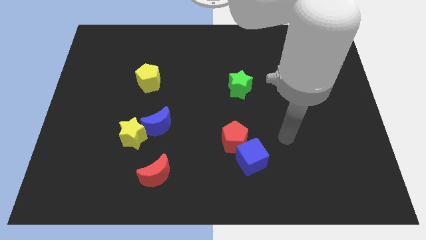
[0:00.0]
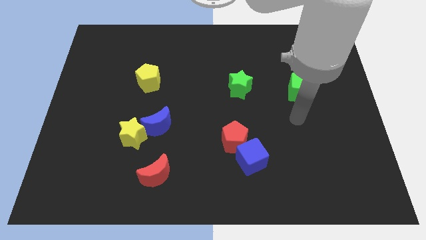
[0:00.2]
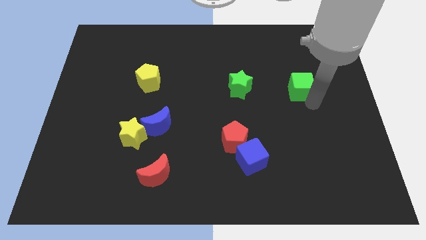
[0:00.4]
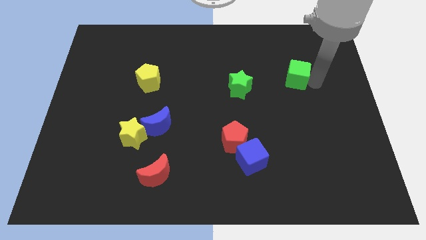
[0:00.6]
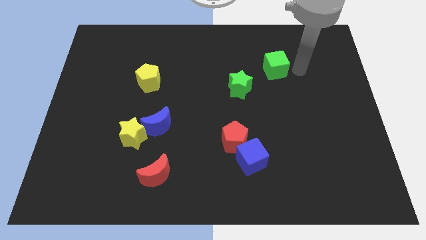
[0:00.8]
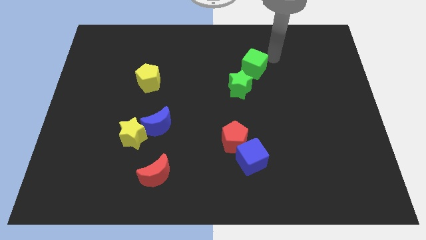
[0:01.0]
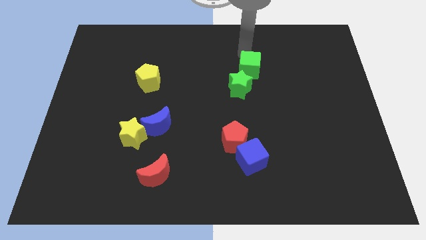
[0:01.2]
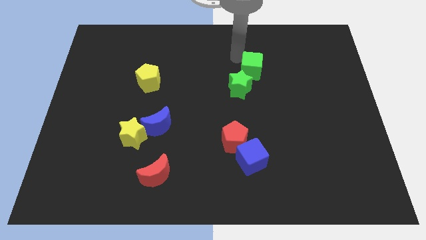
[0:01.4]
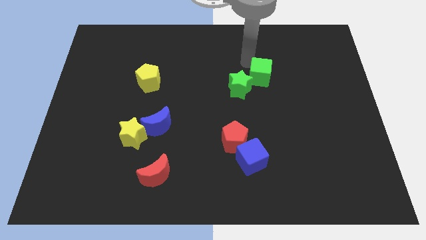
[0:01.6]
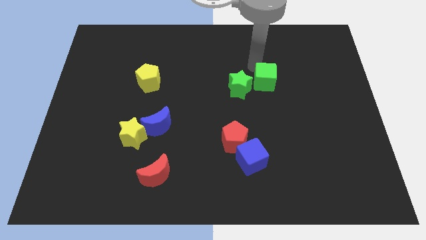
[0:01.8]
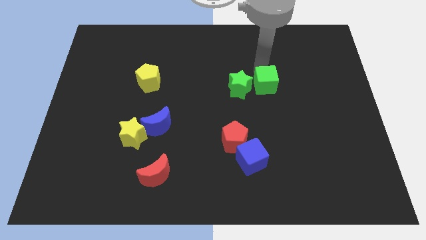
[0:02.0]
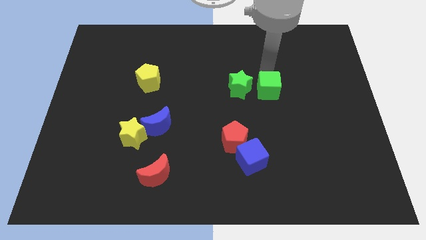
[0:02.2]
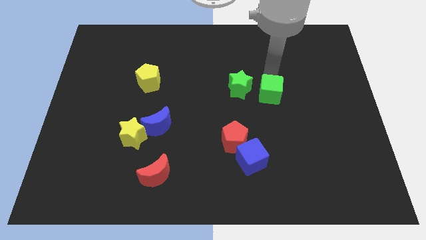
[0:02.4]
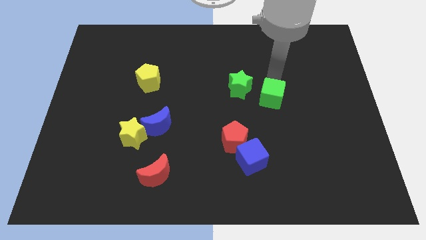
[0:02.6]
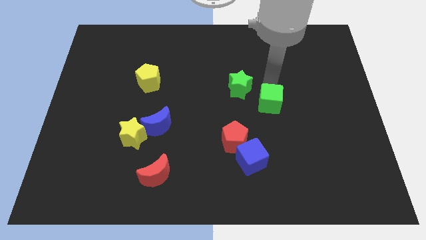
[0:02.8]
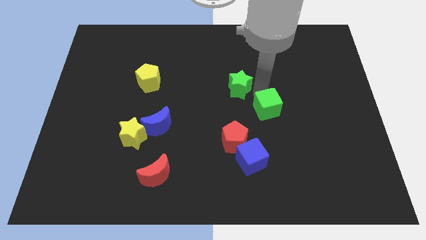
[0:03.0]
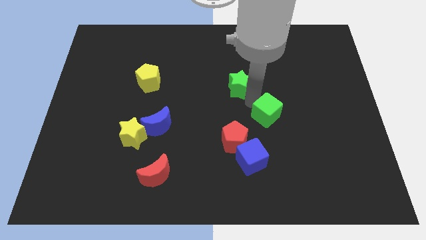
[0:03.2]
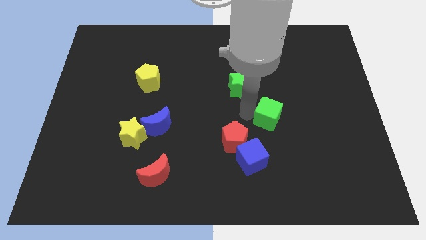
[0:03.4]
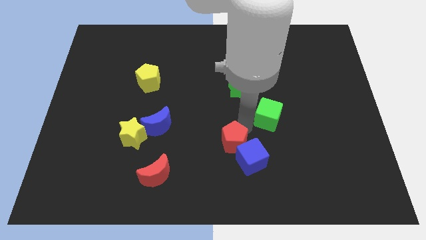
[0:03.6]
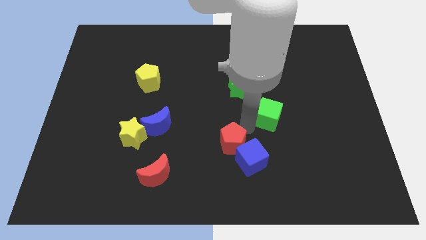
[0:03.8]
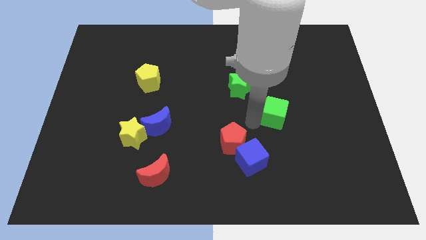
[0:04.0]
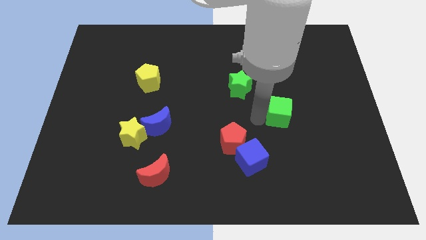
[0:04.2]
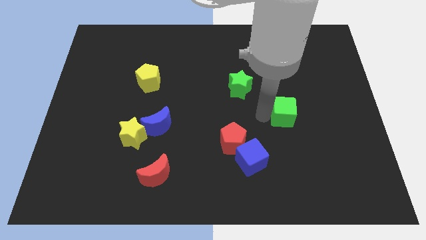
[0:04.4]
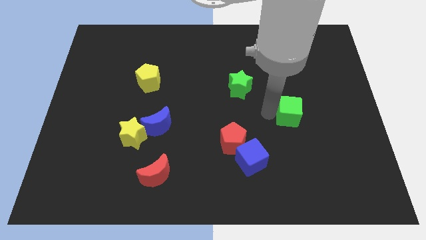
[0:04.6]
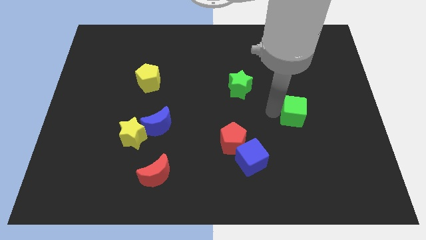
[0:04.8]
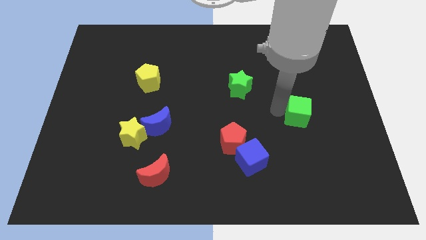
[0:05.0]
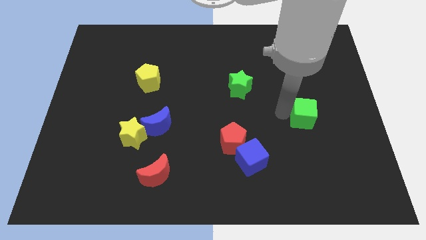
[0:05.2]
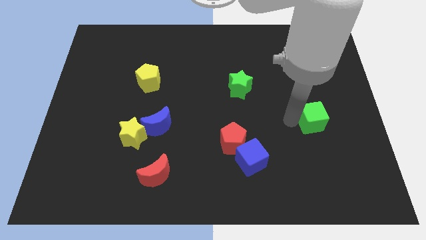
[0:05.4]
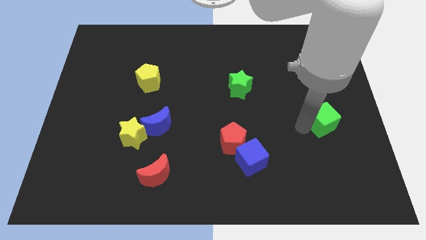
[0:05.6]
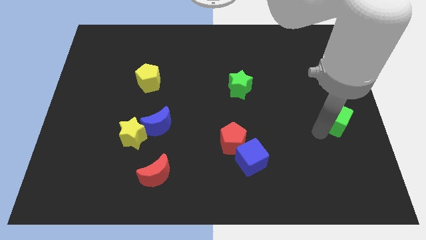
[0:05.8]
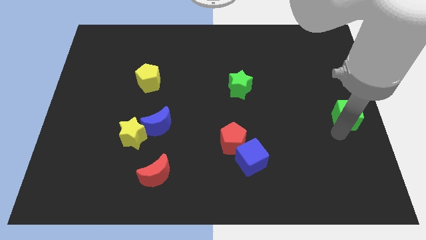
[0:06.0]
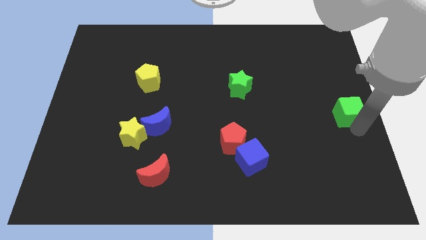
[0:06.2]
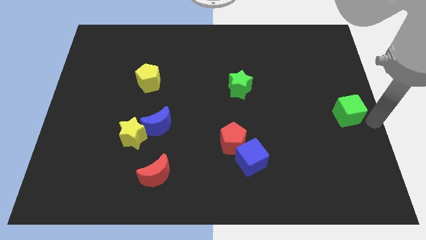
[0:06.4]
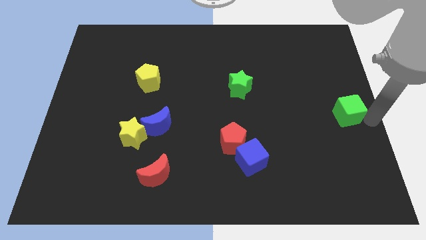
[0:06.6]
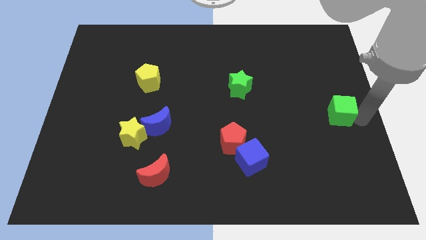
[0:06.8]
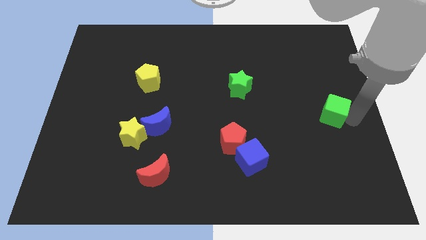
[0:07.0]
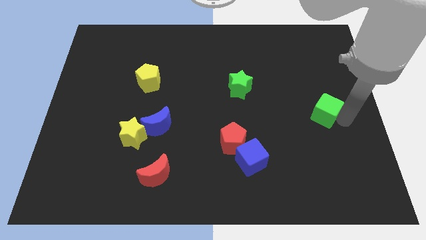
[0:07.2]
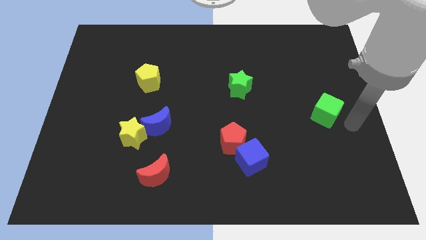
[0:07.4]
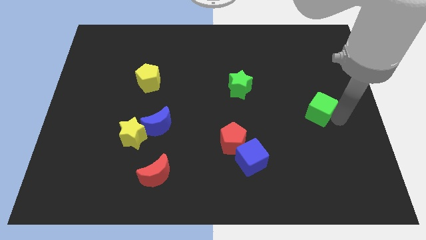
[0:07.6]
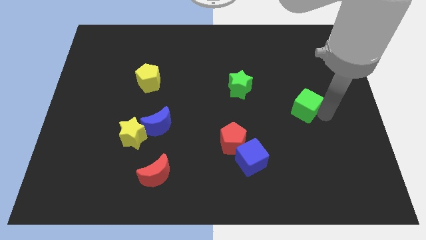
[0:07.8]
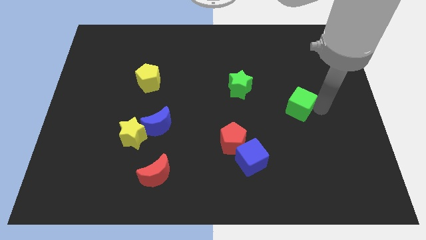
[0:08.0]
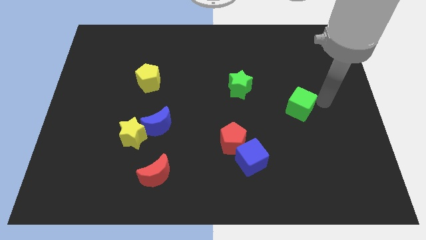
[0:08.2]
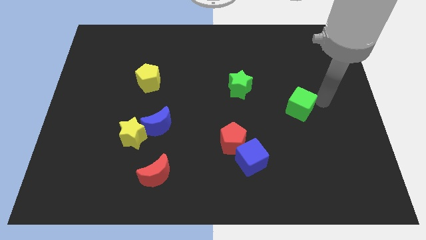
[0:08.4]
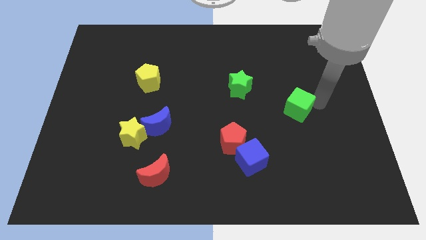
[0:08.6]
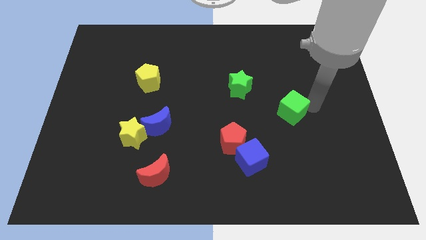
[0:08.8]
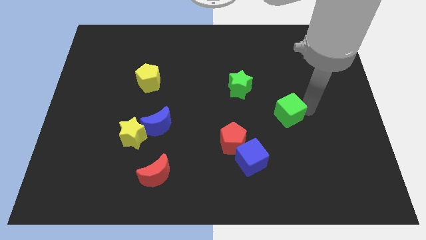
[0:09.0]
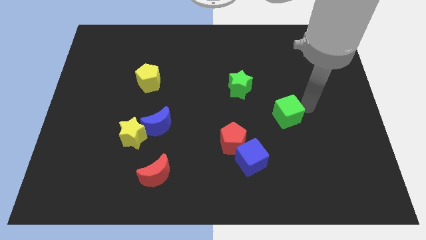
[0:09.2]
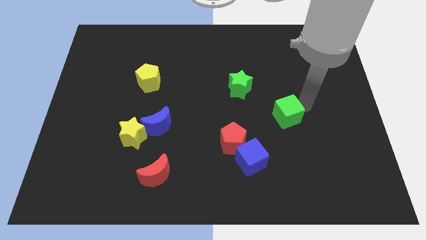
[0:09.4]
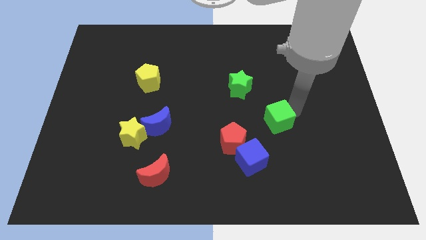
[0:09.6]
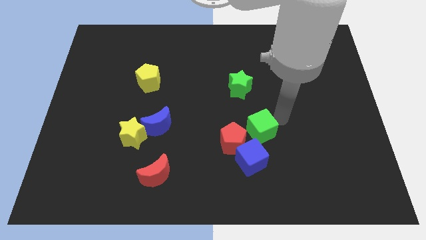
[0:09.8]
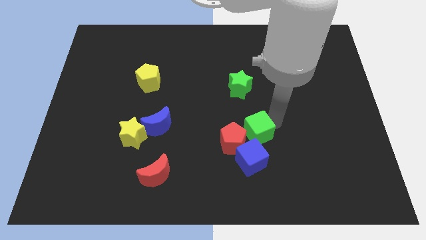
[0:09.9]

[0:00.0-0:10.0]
put the green cube towards the red pentagon

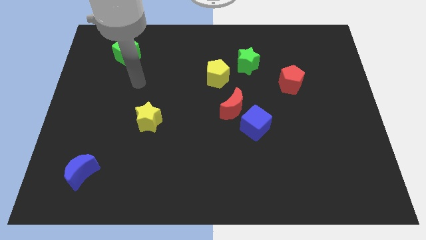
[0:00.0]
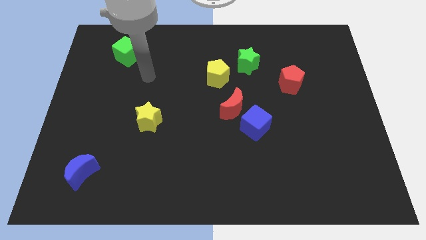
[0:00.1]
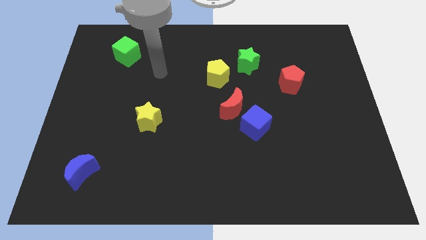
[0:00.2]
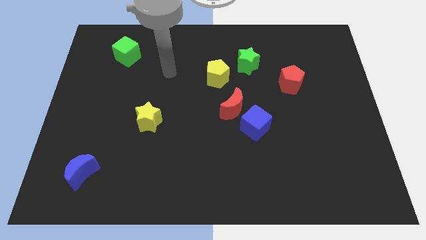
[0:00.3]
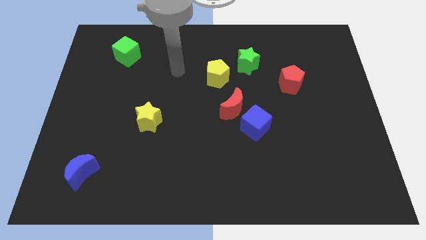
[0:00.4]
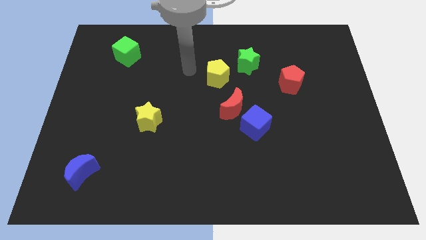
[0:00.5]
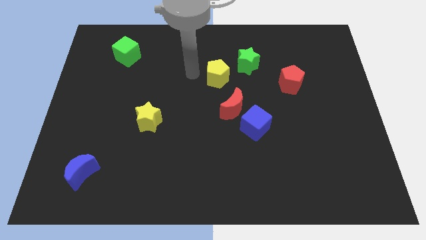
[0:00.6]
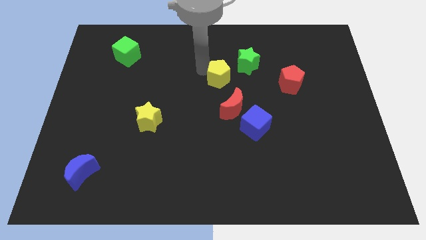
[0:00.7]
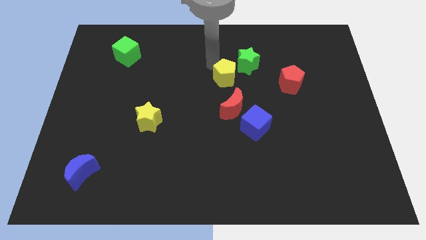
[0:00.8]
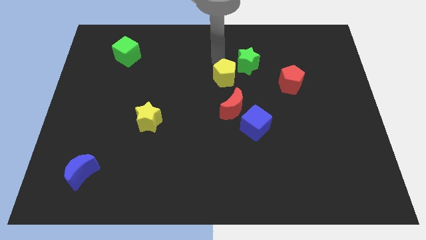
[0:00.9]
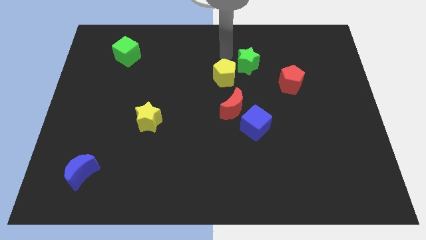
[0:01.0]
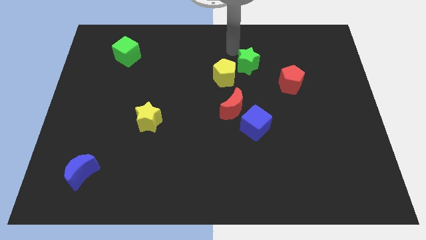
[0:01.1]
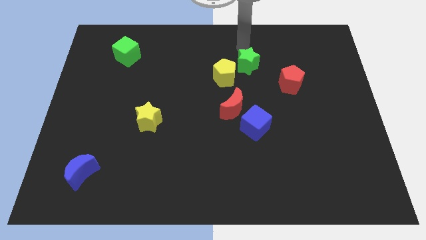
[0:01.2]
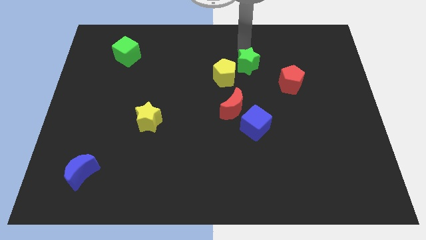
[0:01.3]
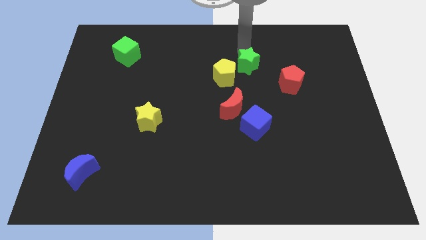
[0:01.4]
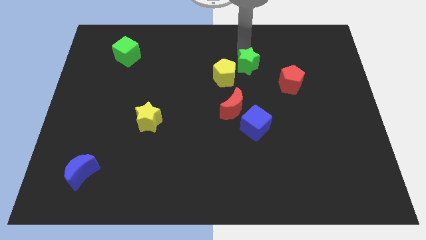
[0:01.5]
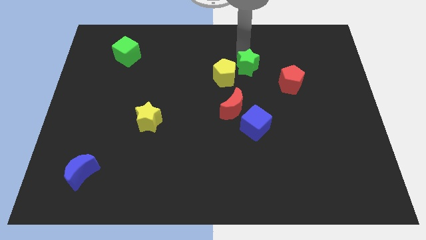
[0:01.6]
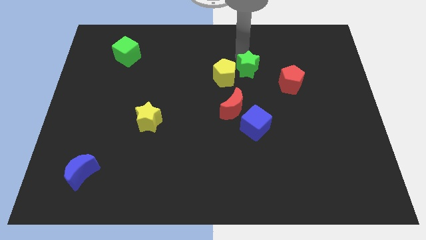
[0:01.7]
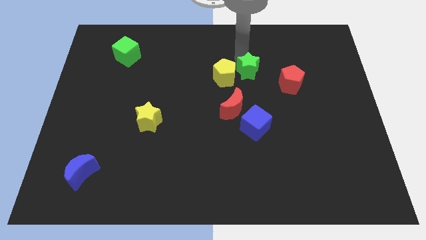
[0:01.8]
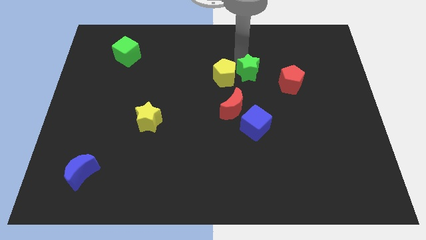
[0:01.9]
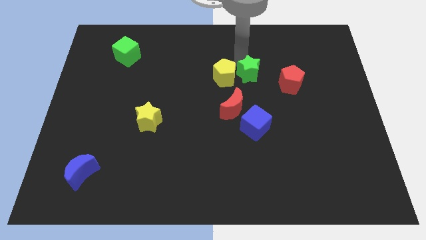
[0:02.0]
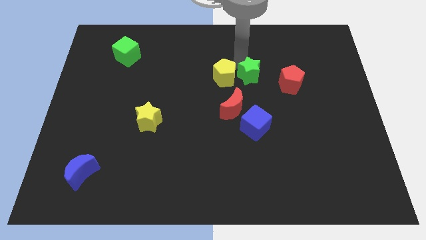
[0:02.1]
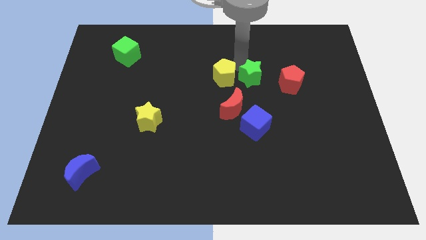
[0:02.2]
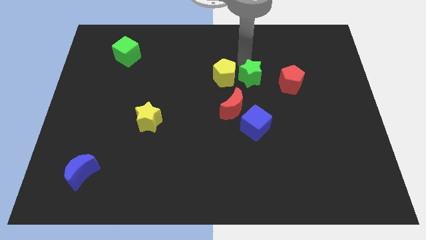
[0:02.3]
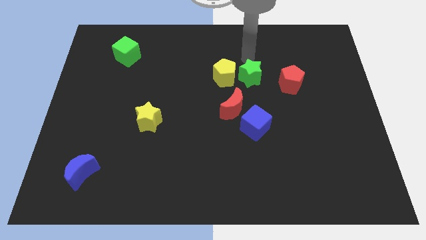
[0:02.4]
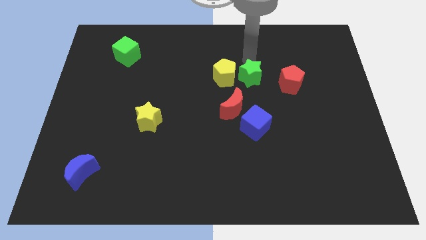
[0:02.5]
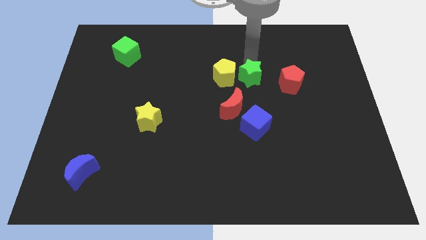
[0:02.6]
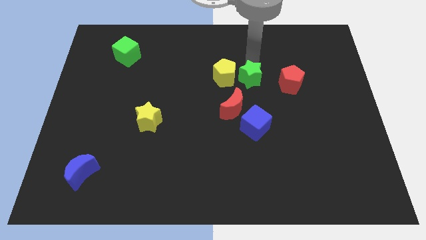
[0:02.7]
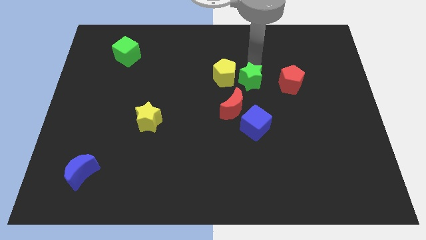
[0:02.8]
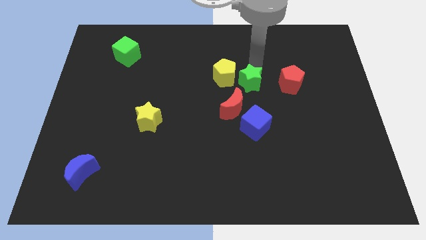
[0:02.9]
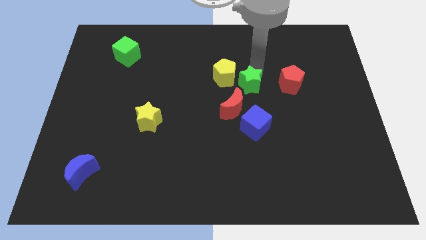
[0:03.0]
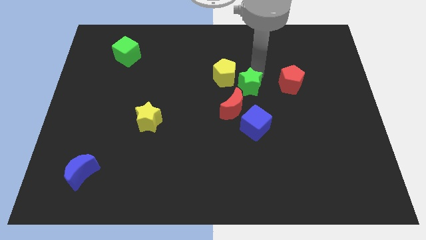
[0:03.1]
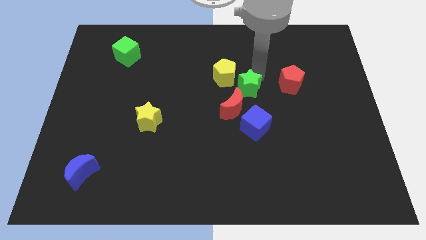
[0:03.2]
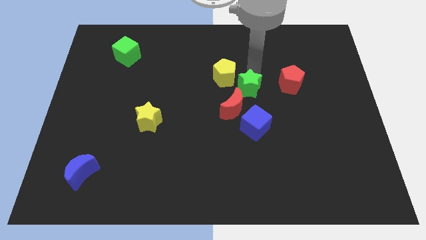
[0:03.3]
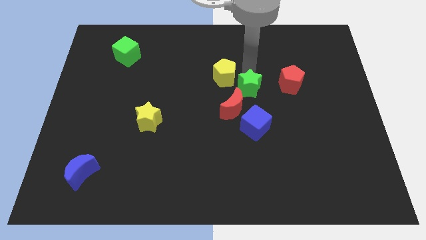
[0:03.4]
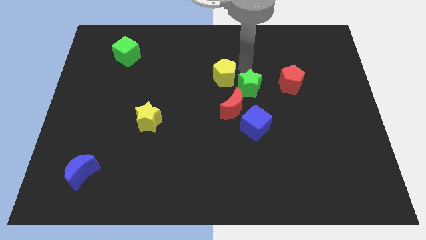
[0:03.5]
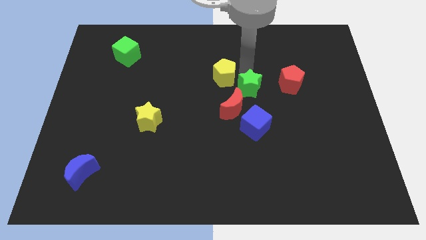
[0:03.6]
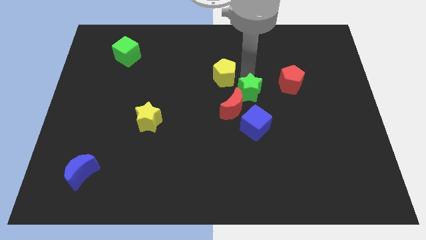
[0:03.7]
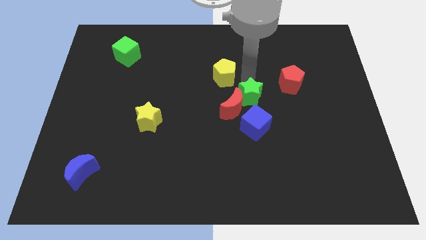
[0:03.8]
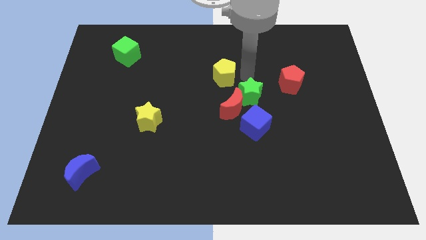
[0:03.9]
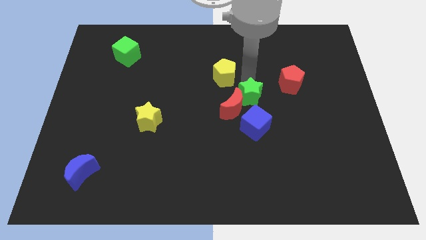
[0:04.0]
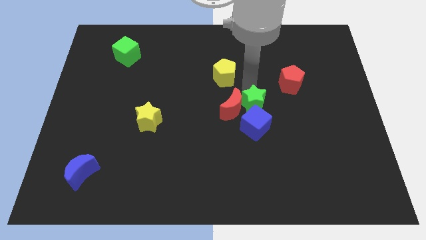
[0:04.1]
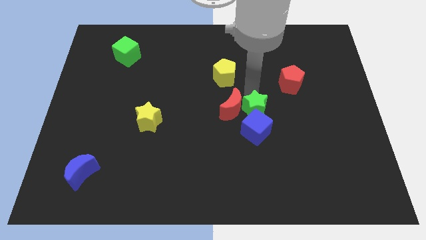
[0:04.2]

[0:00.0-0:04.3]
push the green star to the blue cube
